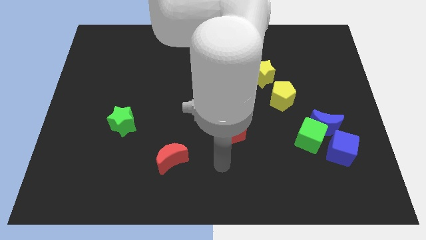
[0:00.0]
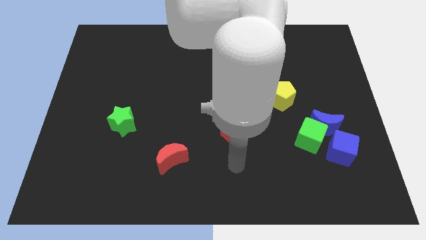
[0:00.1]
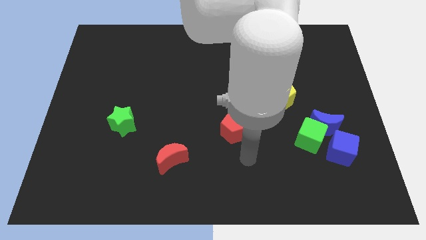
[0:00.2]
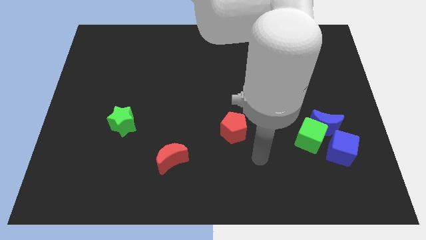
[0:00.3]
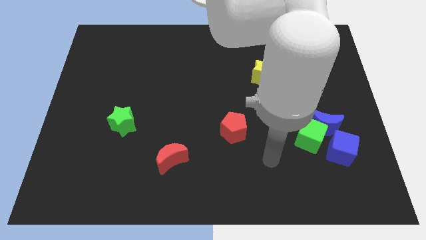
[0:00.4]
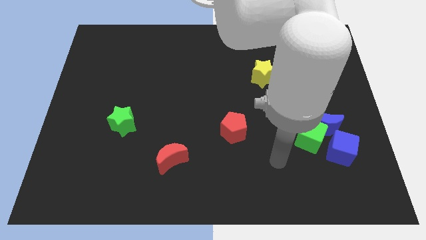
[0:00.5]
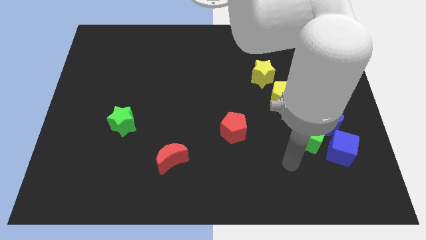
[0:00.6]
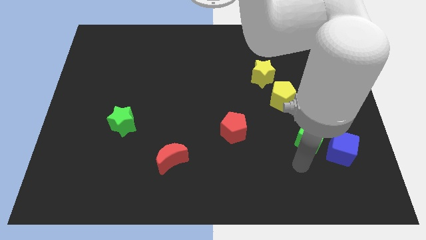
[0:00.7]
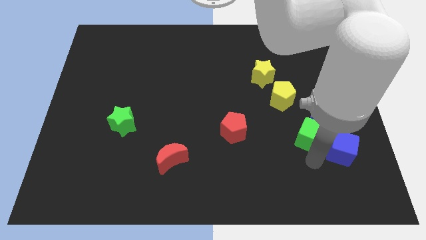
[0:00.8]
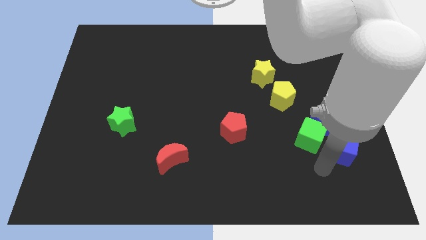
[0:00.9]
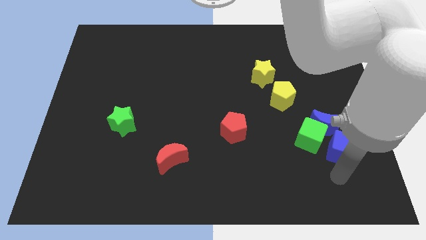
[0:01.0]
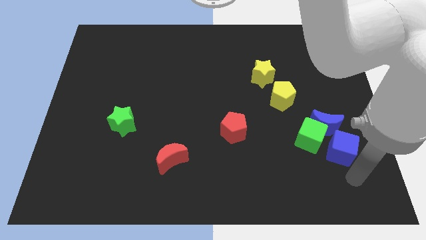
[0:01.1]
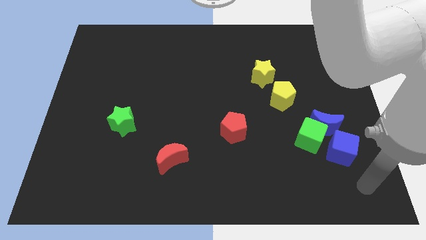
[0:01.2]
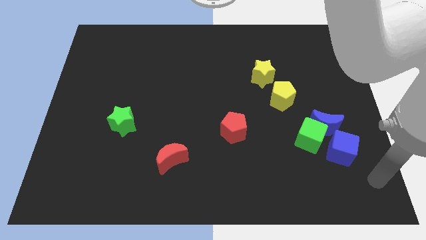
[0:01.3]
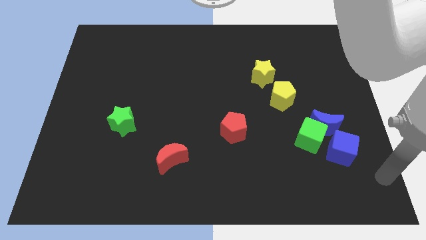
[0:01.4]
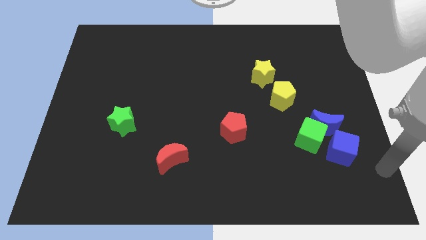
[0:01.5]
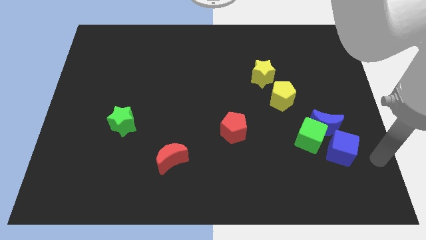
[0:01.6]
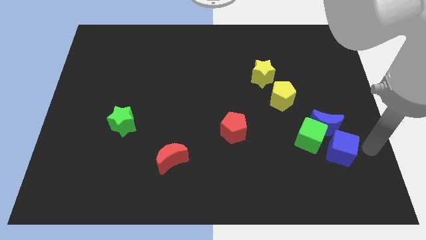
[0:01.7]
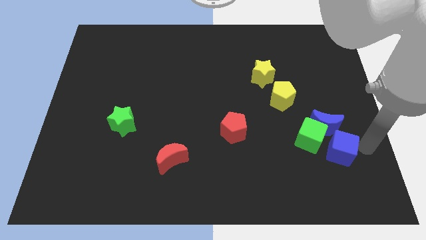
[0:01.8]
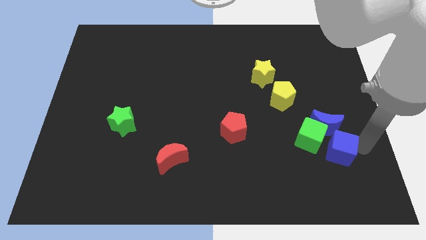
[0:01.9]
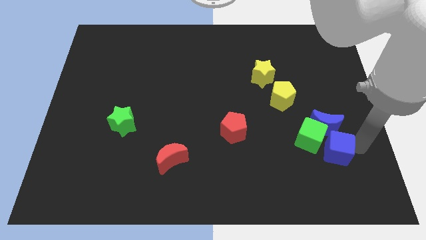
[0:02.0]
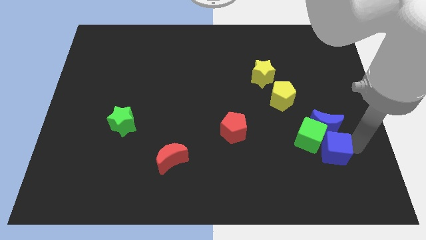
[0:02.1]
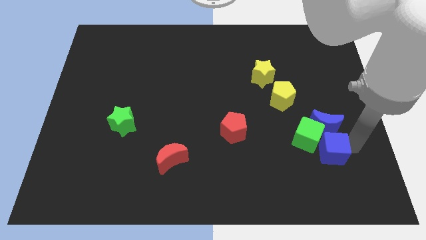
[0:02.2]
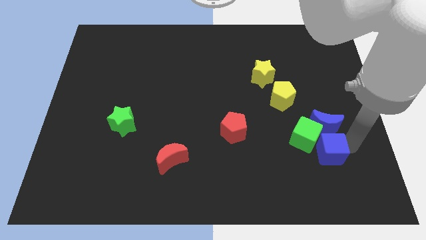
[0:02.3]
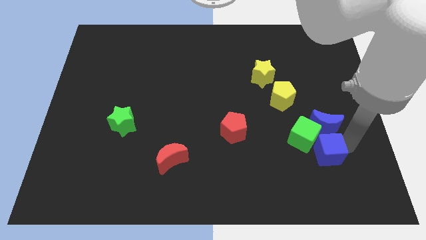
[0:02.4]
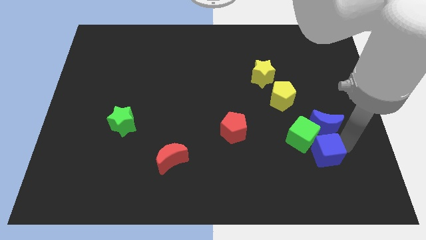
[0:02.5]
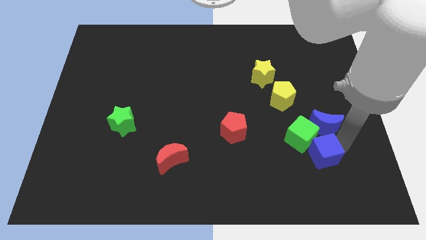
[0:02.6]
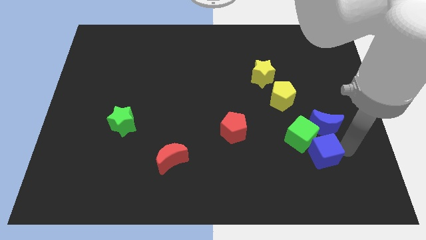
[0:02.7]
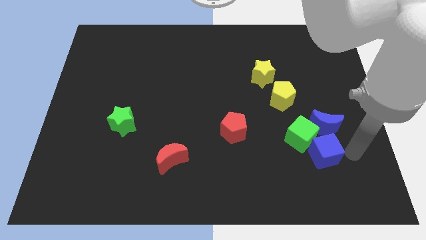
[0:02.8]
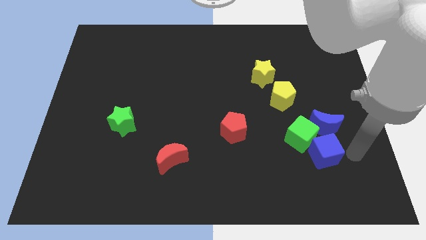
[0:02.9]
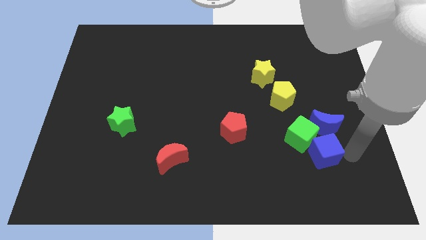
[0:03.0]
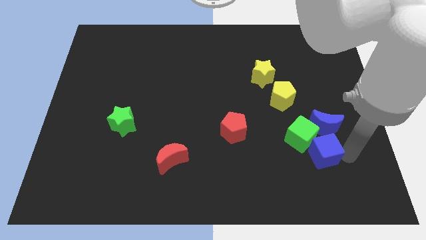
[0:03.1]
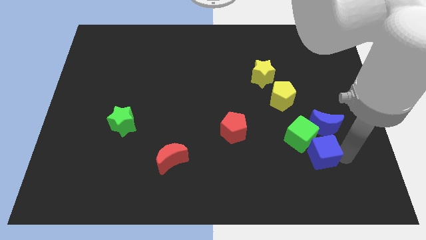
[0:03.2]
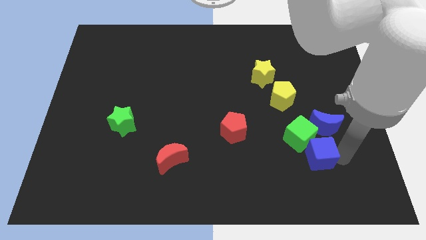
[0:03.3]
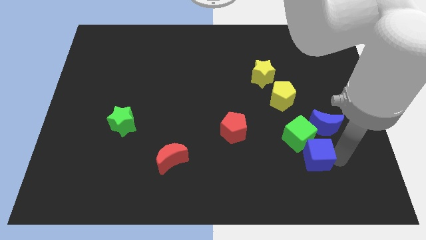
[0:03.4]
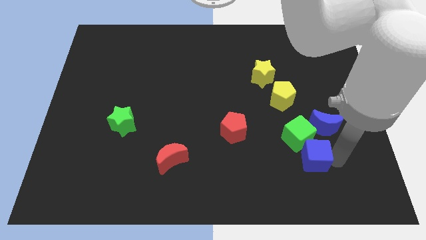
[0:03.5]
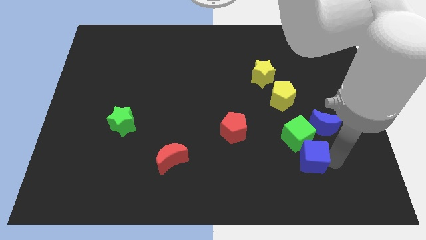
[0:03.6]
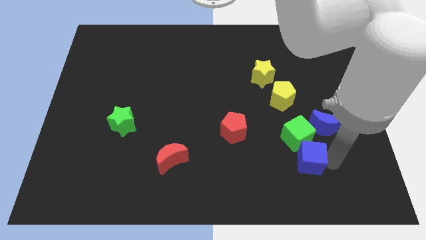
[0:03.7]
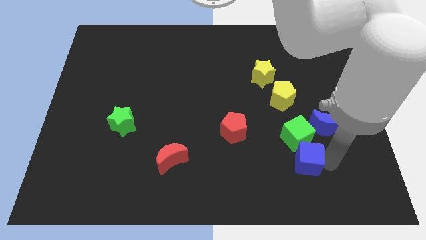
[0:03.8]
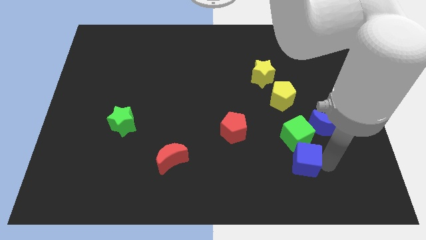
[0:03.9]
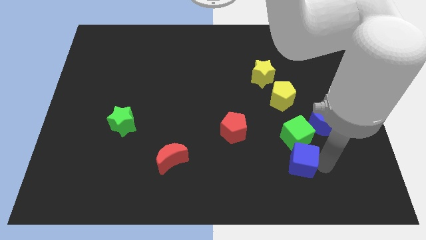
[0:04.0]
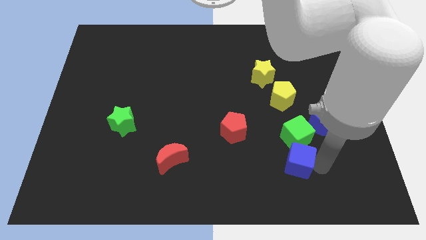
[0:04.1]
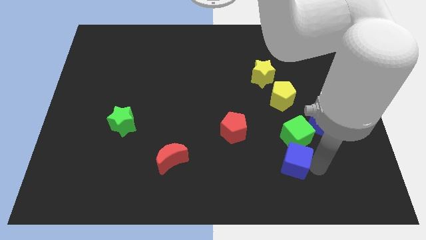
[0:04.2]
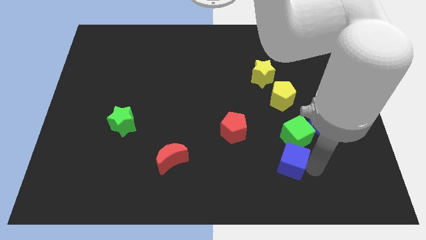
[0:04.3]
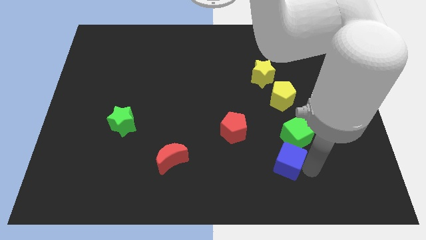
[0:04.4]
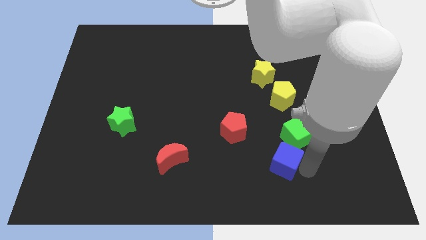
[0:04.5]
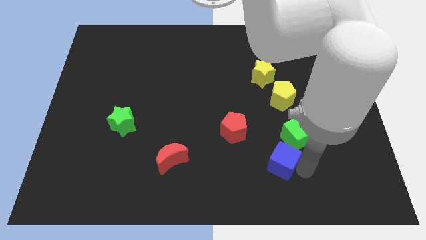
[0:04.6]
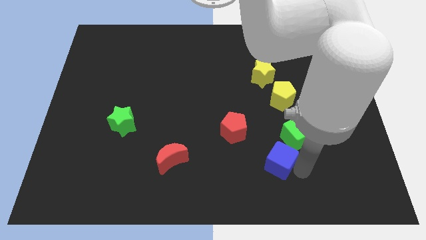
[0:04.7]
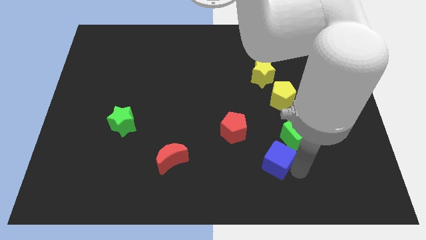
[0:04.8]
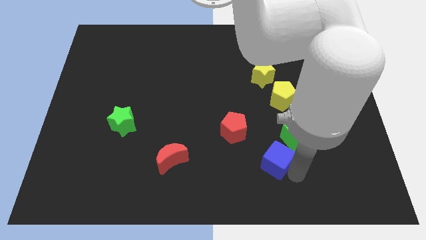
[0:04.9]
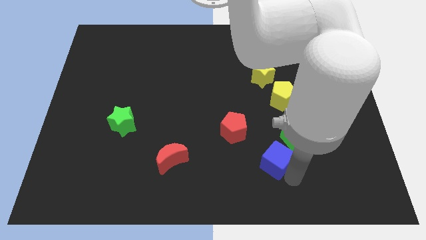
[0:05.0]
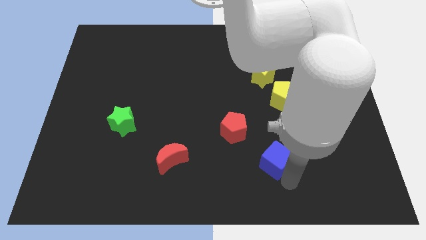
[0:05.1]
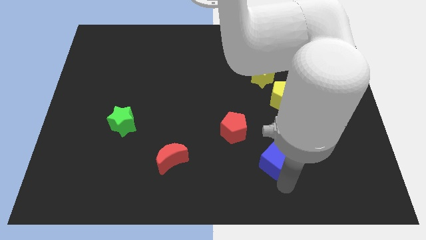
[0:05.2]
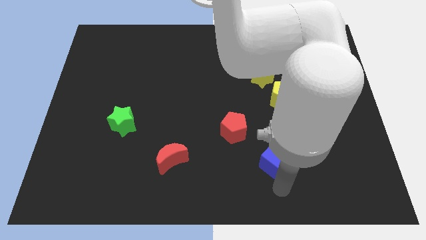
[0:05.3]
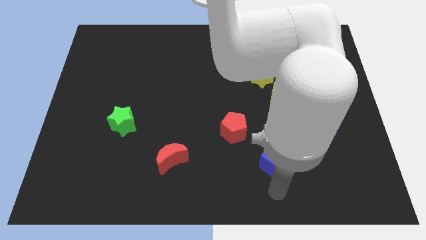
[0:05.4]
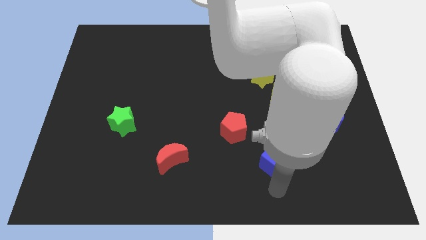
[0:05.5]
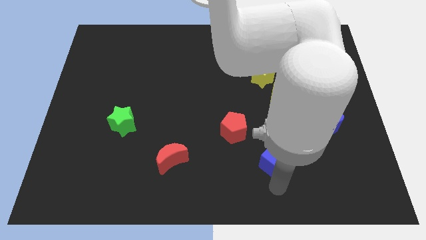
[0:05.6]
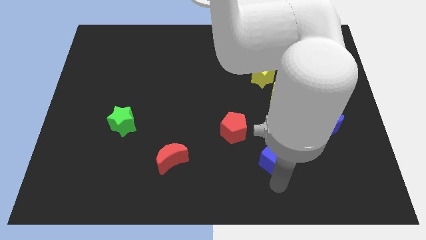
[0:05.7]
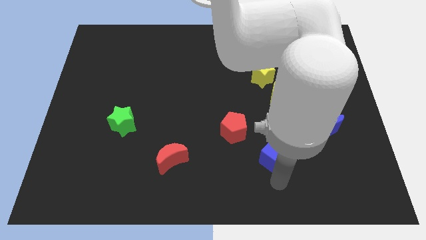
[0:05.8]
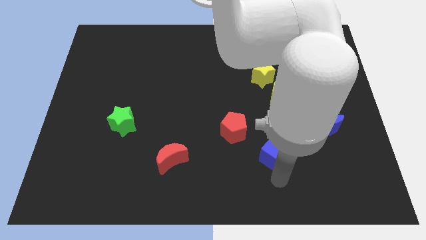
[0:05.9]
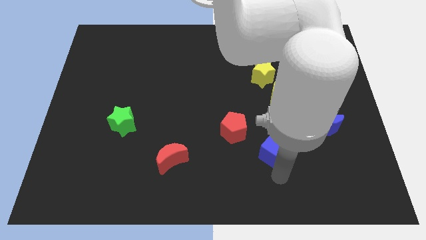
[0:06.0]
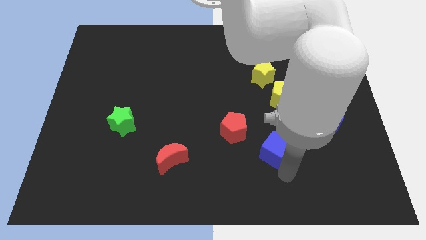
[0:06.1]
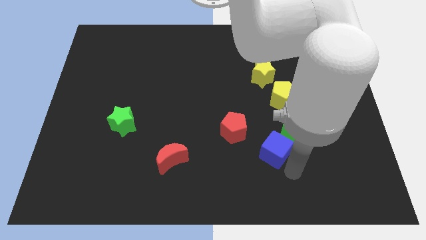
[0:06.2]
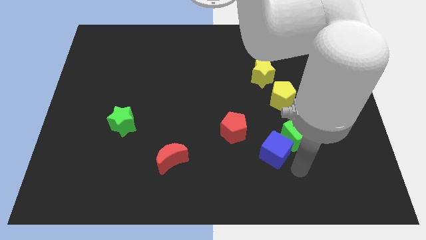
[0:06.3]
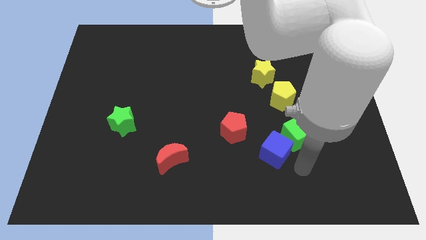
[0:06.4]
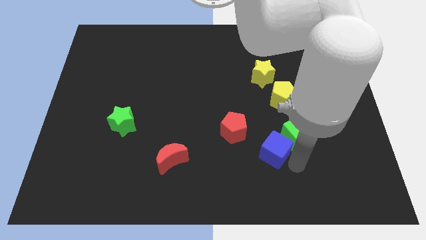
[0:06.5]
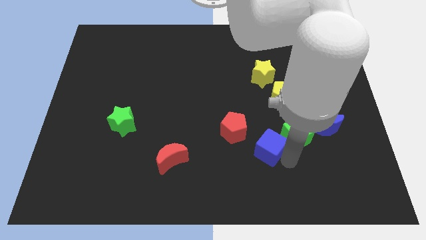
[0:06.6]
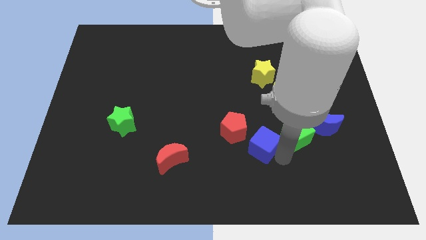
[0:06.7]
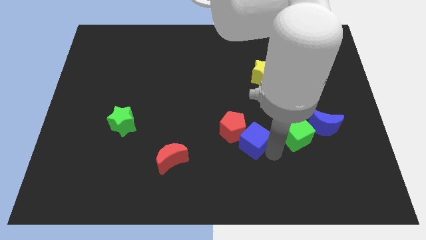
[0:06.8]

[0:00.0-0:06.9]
push the blue cube towards the red pentagon
